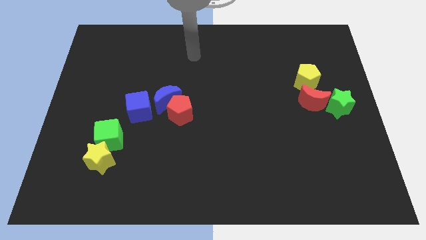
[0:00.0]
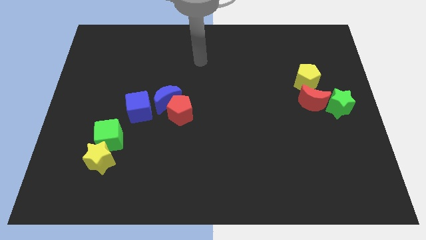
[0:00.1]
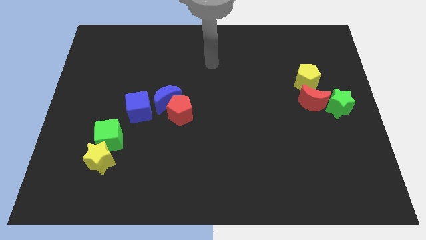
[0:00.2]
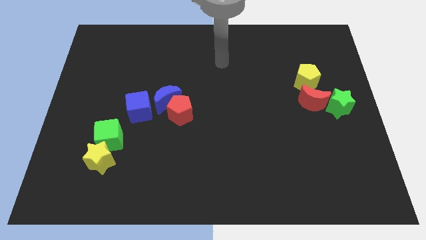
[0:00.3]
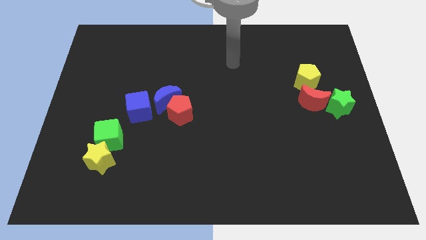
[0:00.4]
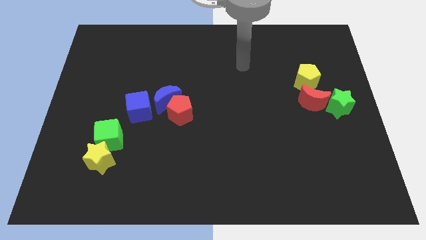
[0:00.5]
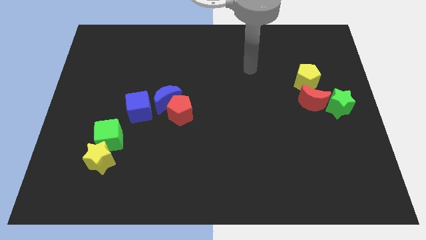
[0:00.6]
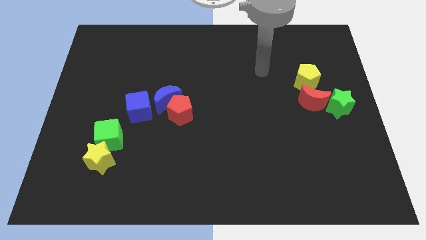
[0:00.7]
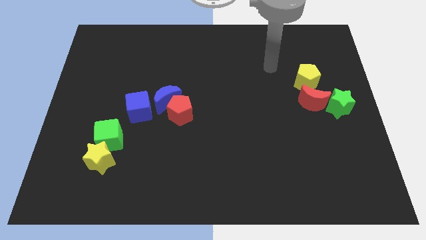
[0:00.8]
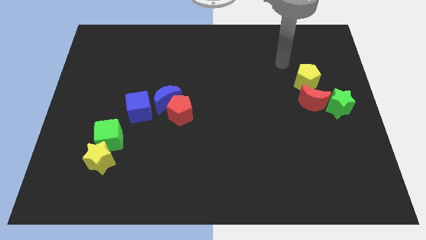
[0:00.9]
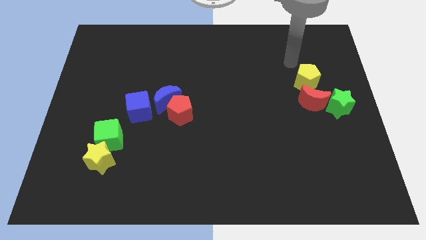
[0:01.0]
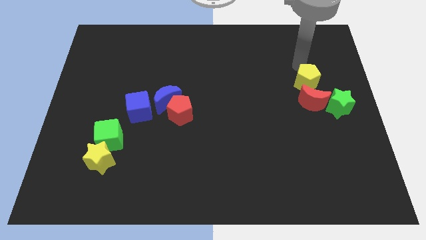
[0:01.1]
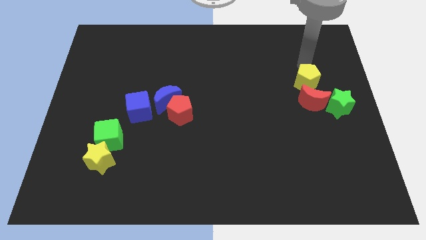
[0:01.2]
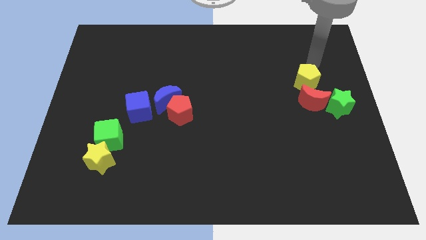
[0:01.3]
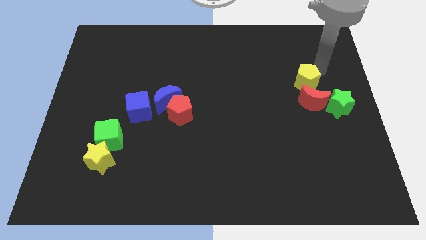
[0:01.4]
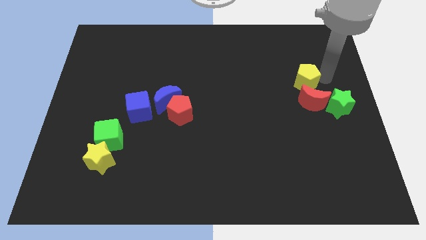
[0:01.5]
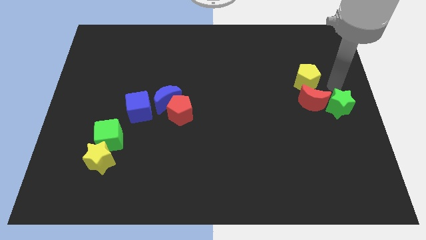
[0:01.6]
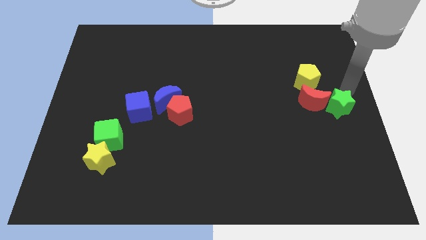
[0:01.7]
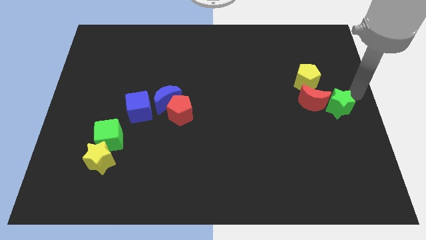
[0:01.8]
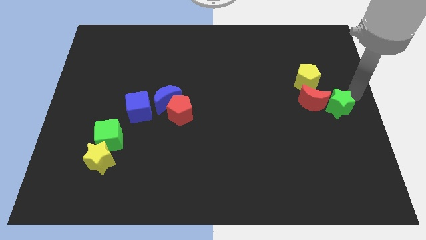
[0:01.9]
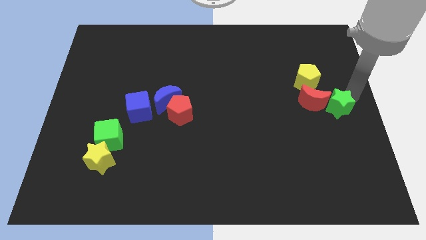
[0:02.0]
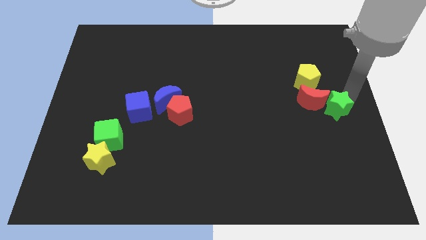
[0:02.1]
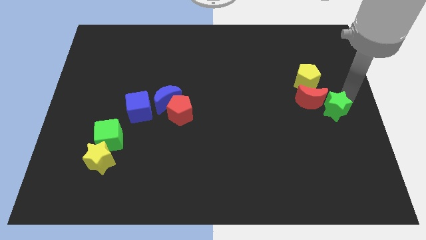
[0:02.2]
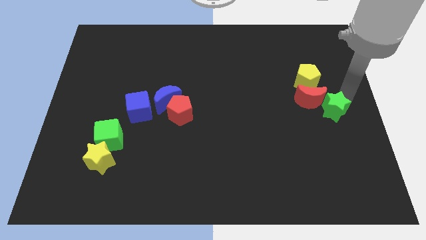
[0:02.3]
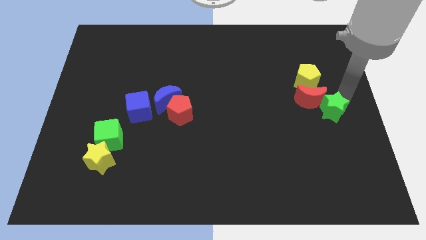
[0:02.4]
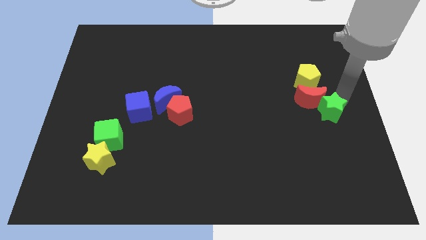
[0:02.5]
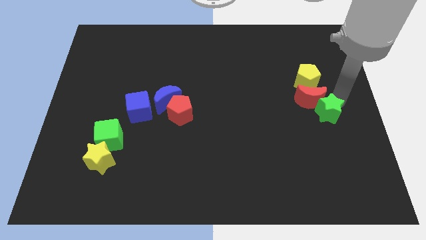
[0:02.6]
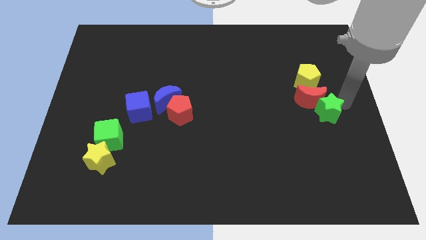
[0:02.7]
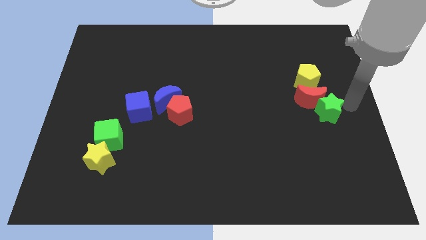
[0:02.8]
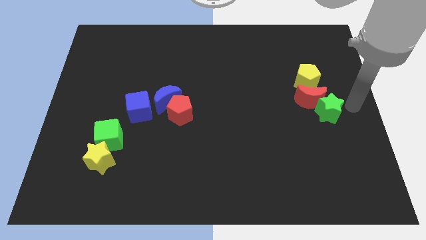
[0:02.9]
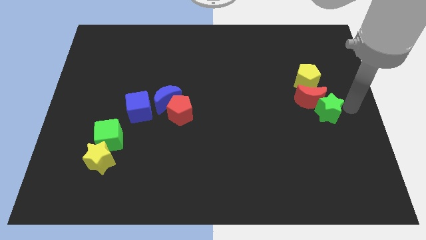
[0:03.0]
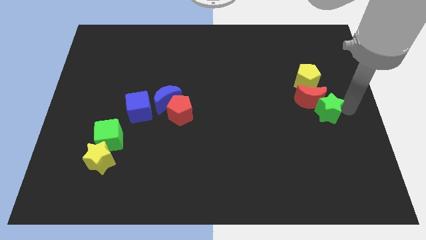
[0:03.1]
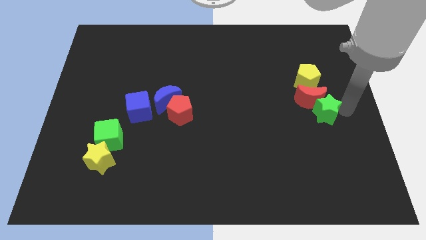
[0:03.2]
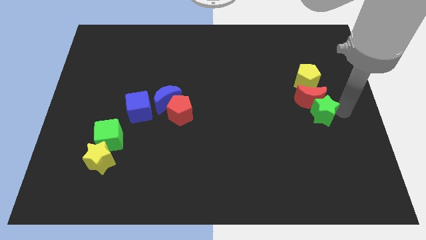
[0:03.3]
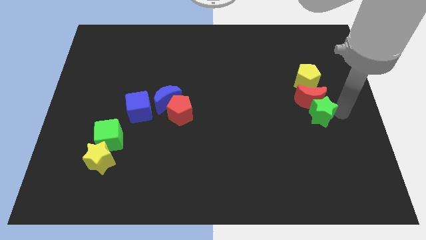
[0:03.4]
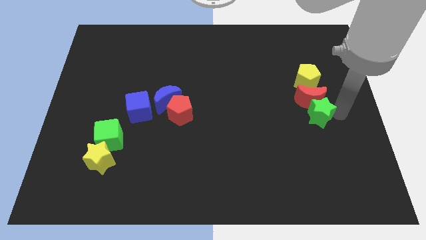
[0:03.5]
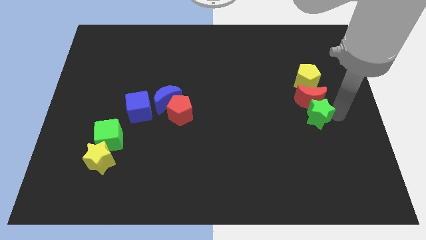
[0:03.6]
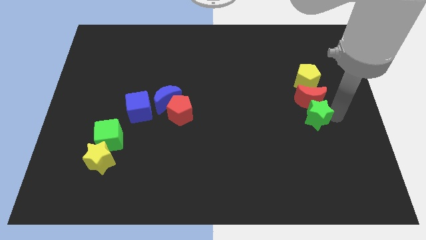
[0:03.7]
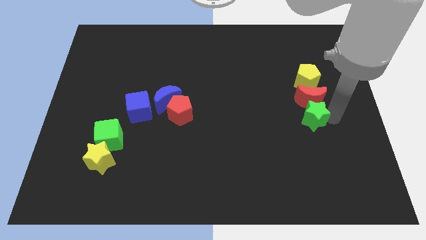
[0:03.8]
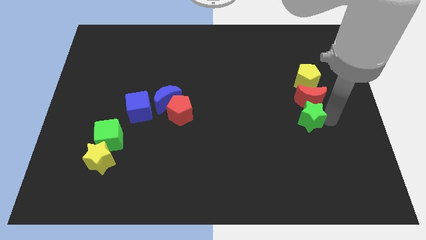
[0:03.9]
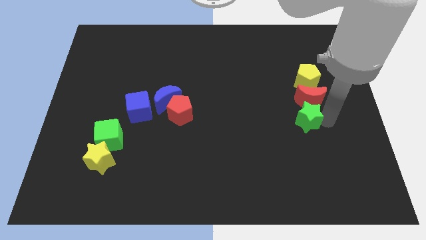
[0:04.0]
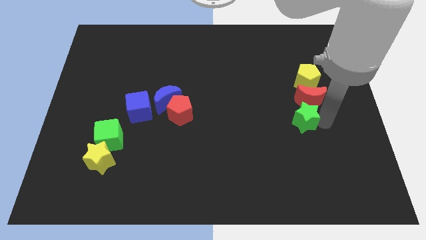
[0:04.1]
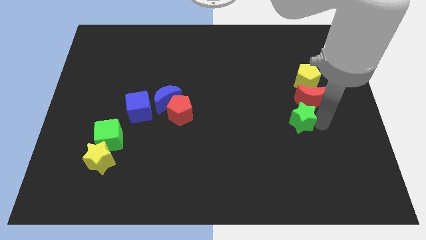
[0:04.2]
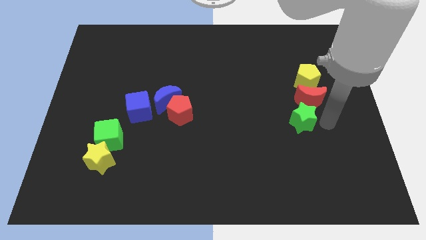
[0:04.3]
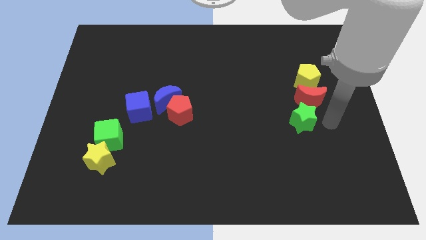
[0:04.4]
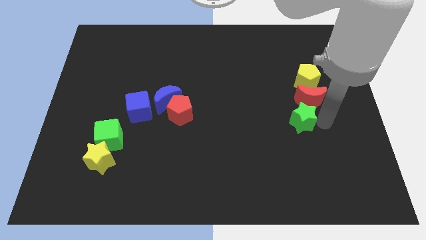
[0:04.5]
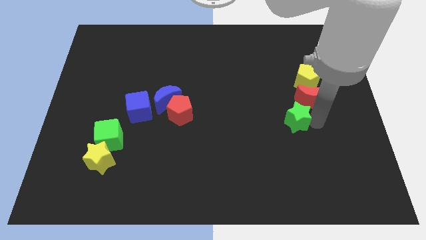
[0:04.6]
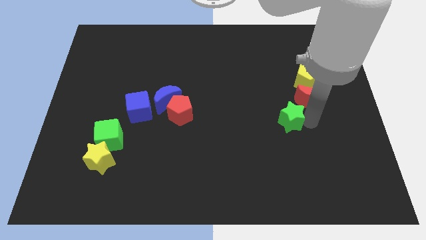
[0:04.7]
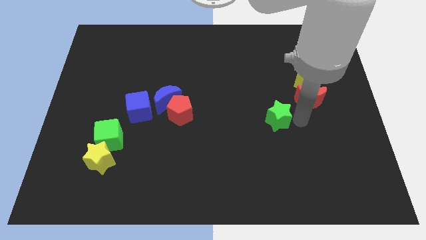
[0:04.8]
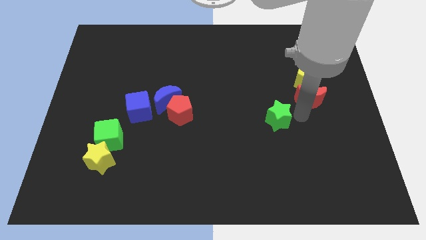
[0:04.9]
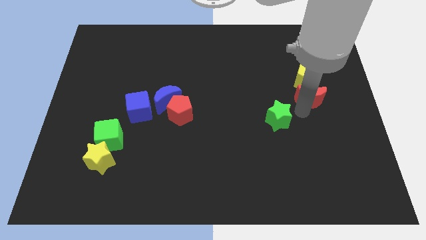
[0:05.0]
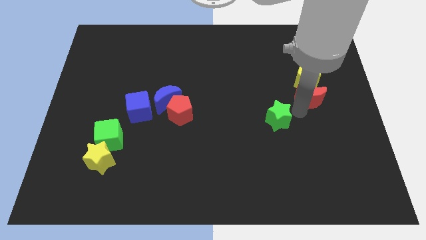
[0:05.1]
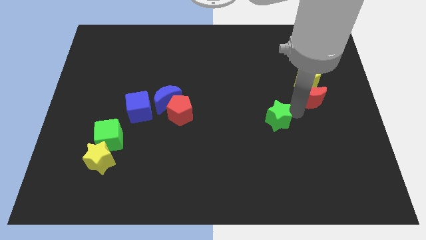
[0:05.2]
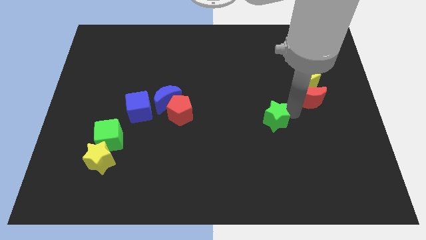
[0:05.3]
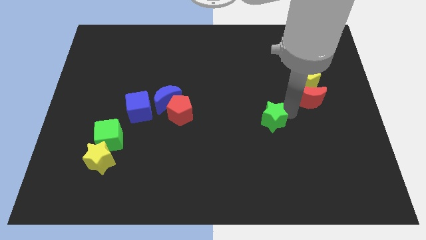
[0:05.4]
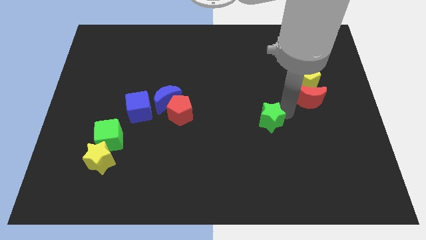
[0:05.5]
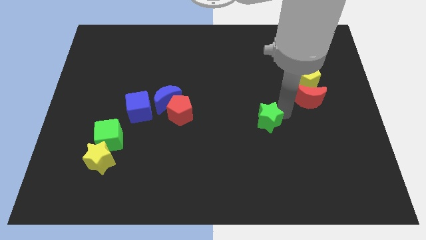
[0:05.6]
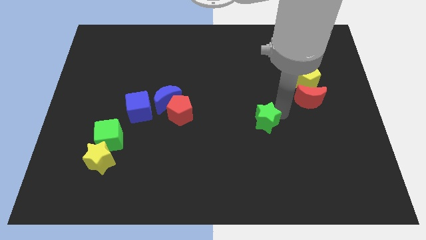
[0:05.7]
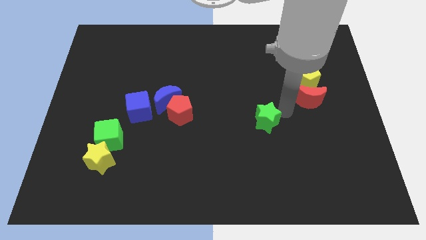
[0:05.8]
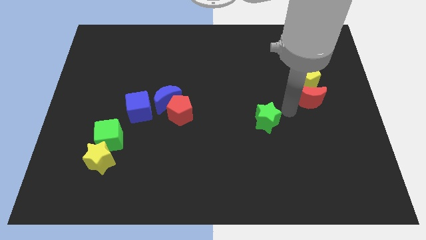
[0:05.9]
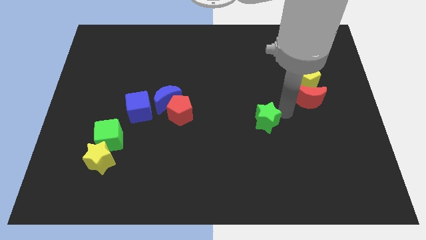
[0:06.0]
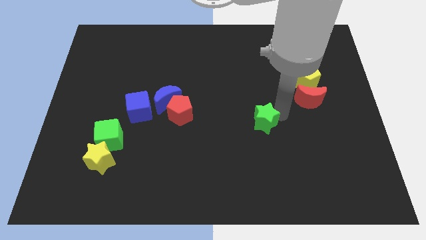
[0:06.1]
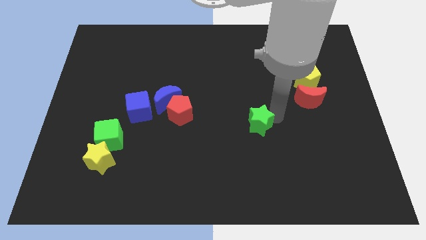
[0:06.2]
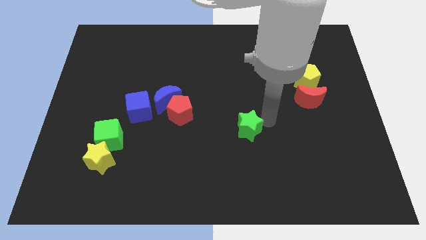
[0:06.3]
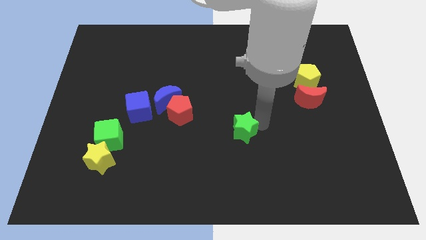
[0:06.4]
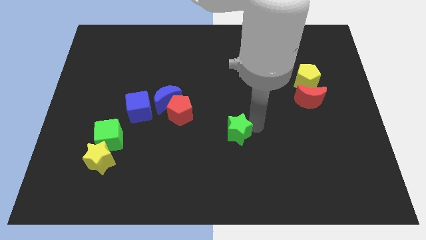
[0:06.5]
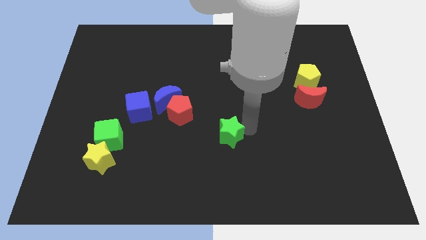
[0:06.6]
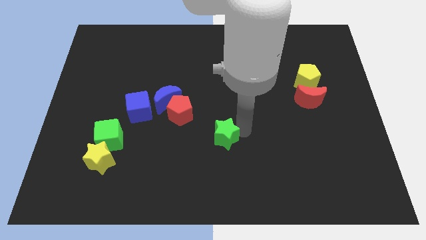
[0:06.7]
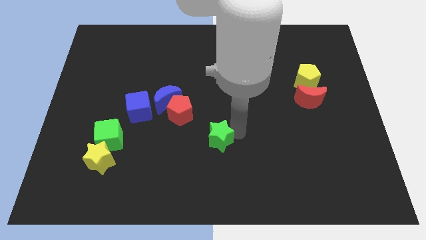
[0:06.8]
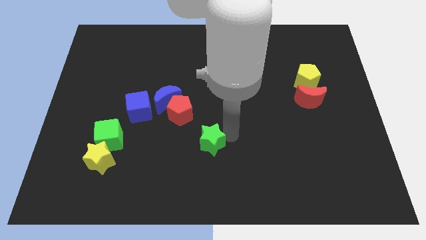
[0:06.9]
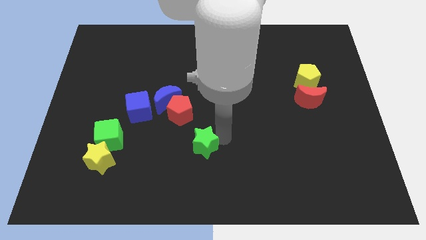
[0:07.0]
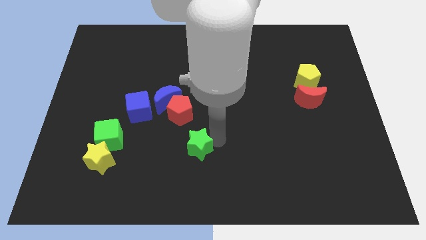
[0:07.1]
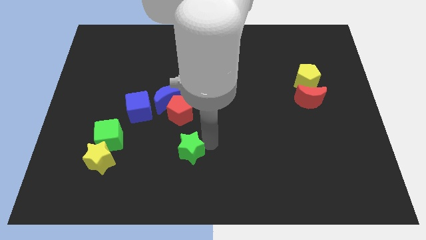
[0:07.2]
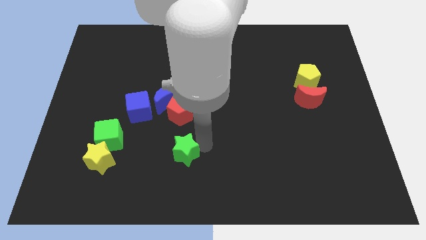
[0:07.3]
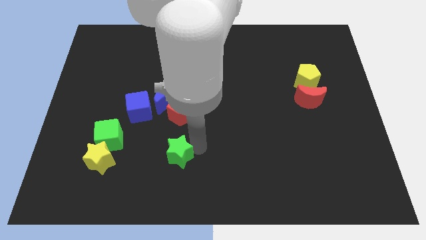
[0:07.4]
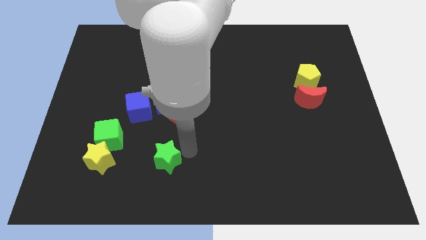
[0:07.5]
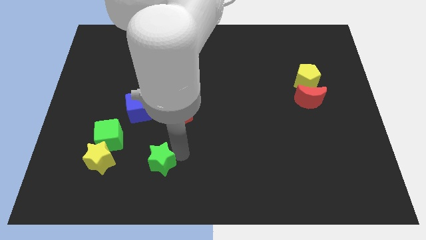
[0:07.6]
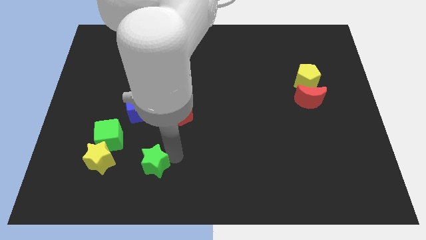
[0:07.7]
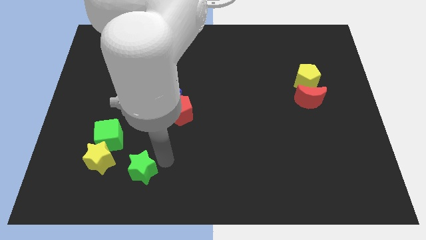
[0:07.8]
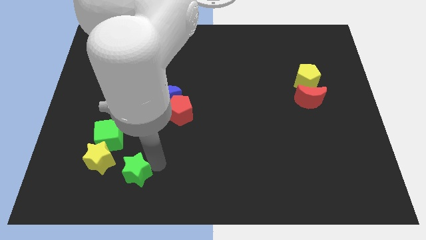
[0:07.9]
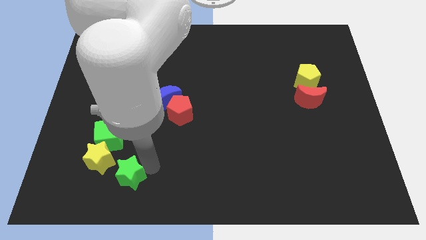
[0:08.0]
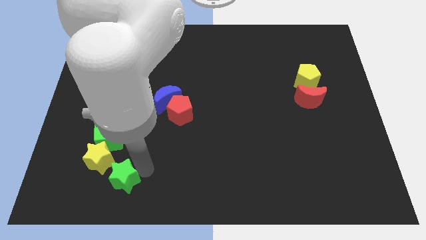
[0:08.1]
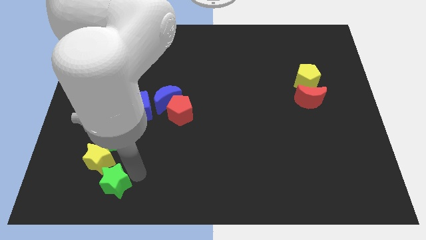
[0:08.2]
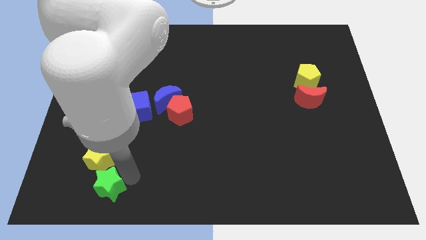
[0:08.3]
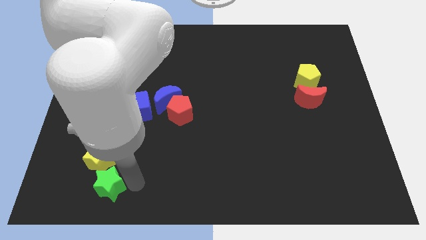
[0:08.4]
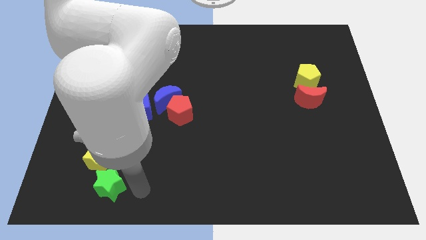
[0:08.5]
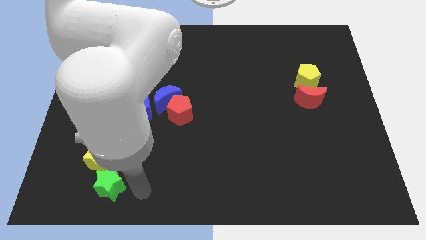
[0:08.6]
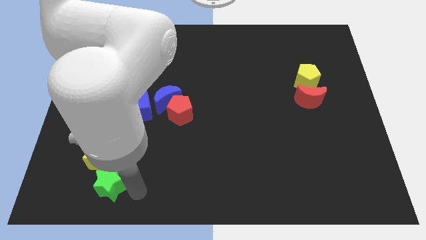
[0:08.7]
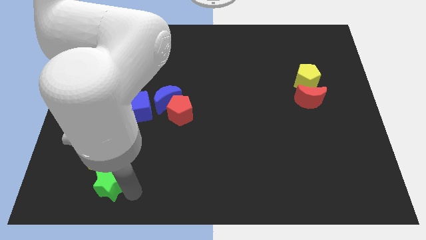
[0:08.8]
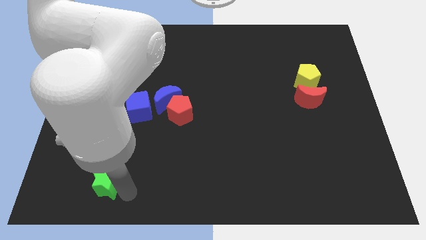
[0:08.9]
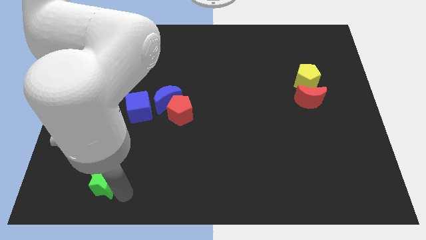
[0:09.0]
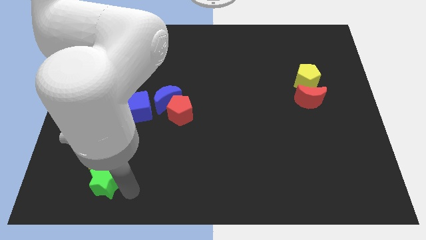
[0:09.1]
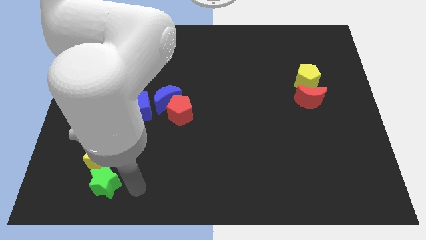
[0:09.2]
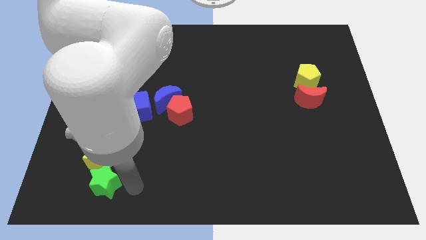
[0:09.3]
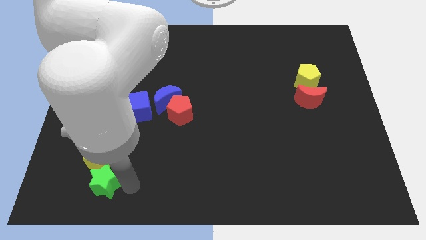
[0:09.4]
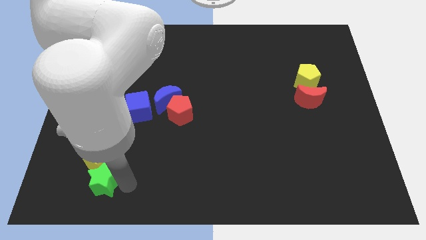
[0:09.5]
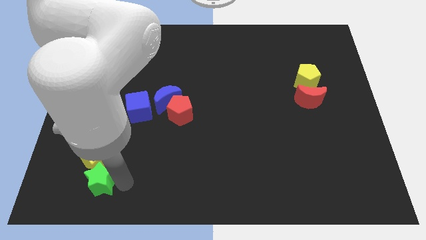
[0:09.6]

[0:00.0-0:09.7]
move the green star to the bottom left side of the yellow star
